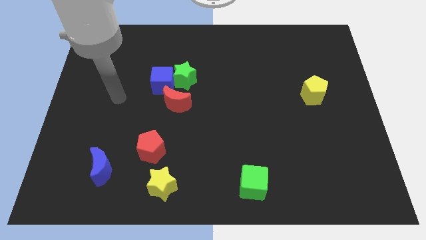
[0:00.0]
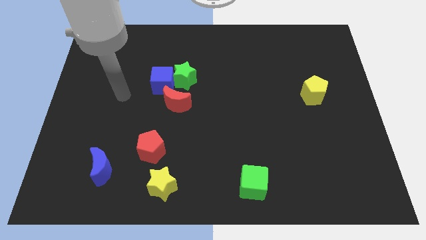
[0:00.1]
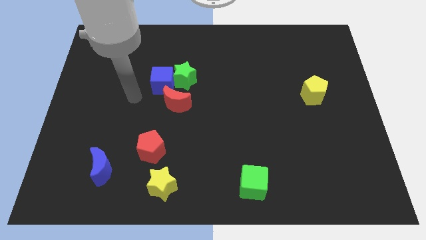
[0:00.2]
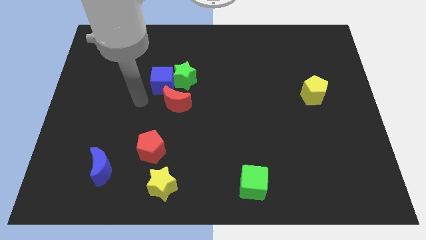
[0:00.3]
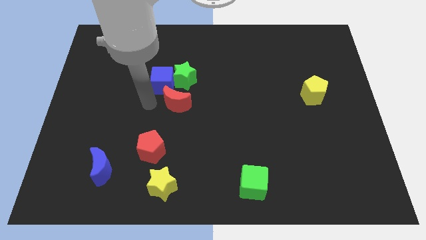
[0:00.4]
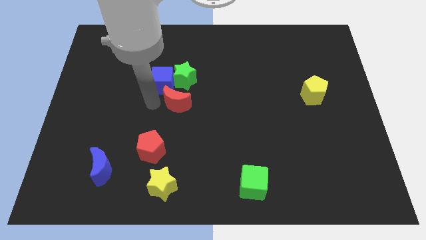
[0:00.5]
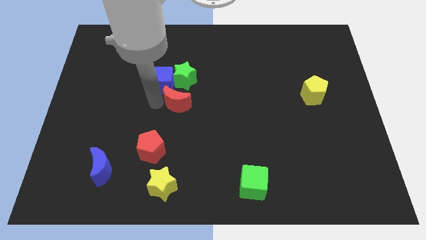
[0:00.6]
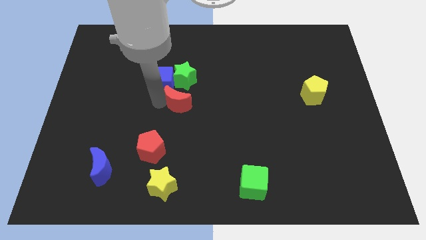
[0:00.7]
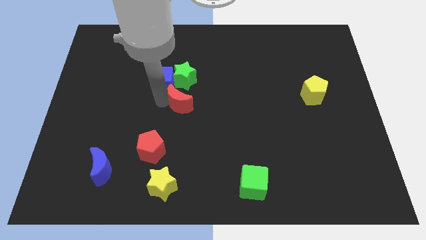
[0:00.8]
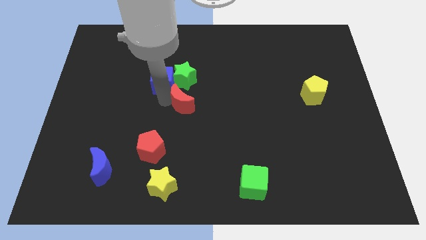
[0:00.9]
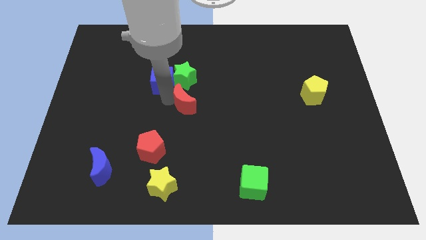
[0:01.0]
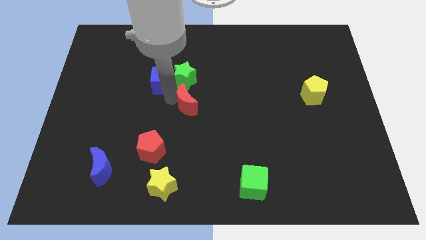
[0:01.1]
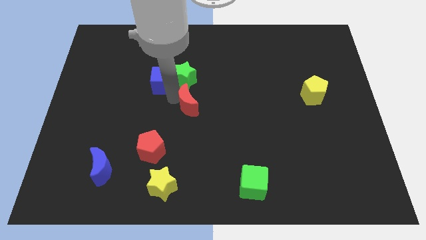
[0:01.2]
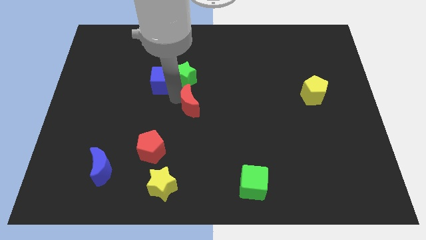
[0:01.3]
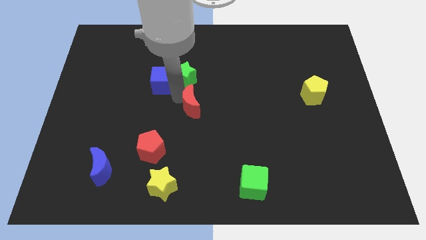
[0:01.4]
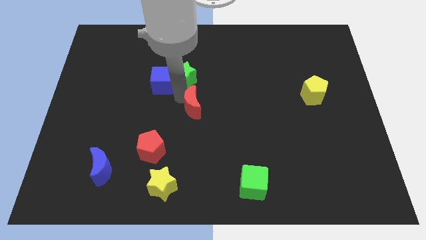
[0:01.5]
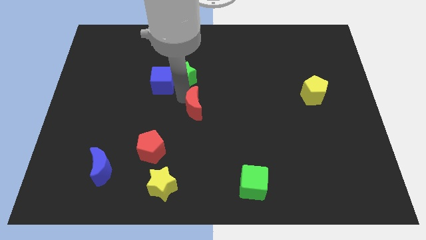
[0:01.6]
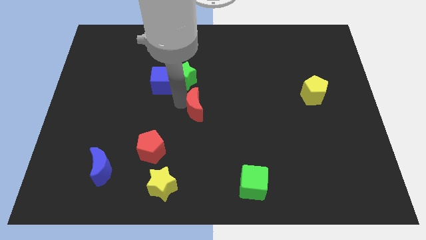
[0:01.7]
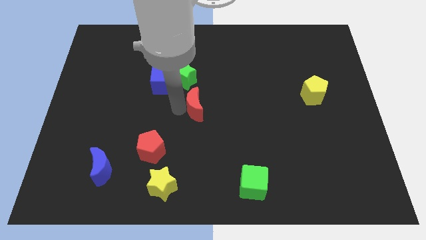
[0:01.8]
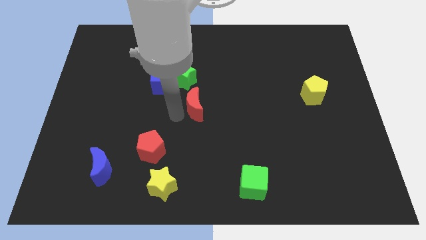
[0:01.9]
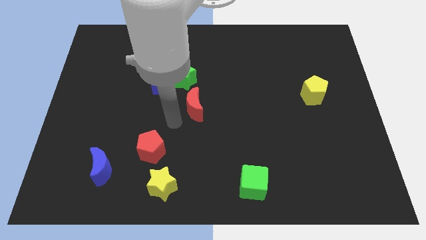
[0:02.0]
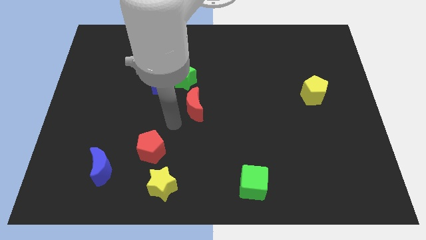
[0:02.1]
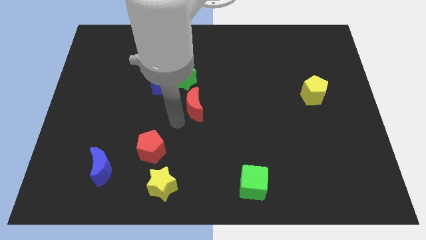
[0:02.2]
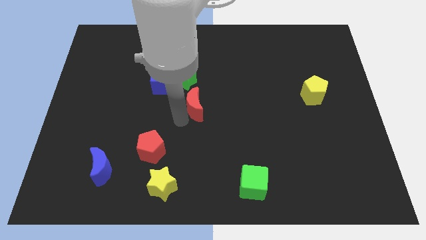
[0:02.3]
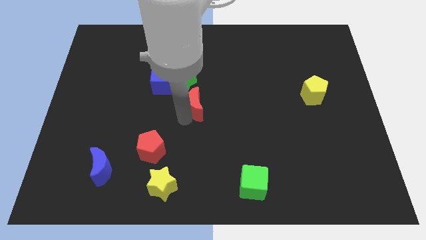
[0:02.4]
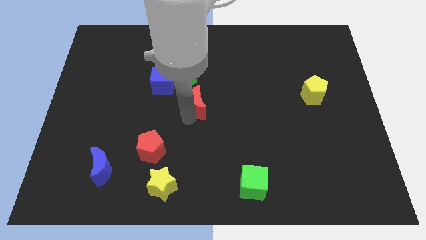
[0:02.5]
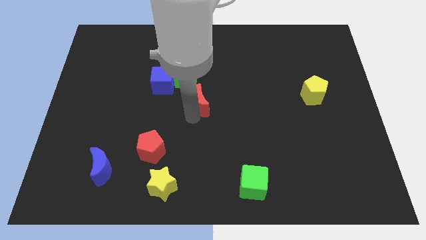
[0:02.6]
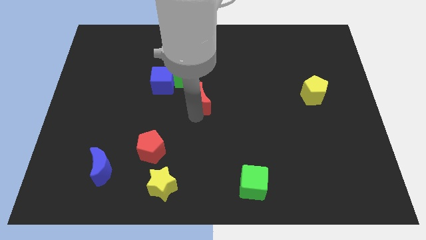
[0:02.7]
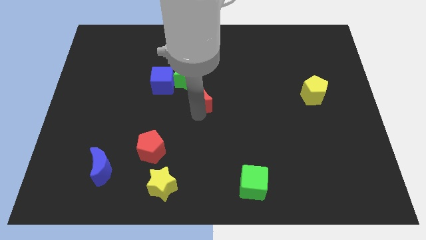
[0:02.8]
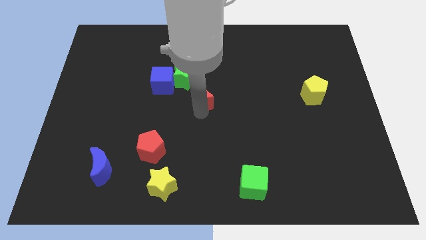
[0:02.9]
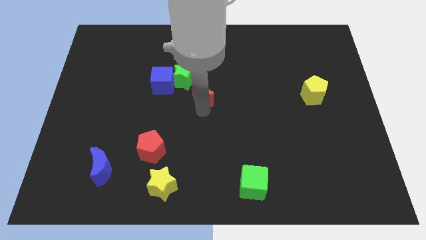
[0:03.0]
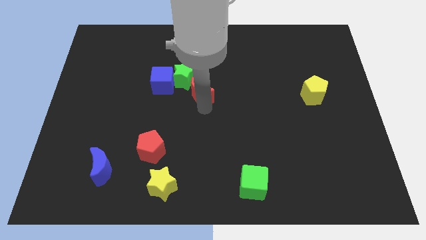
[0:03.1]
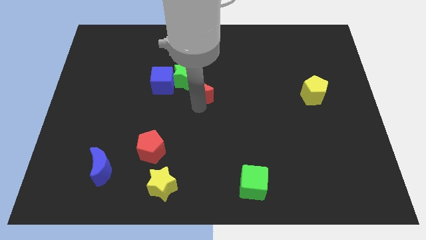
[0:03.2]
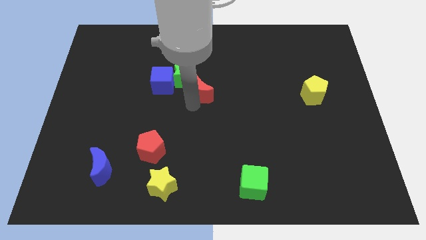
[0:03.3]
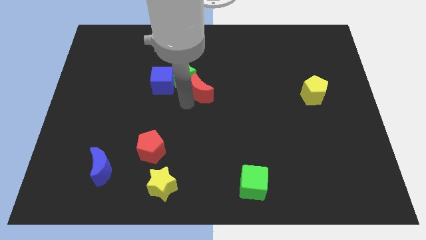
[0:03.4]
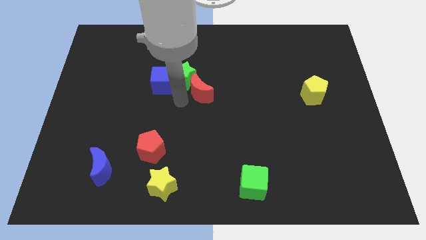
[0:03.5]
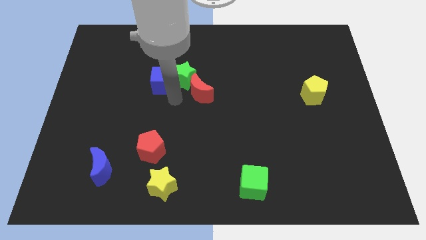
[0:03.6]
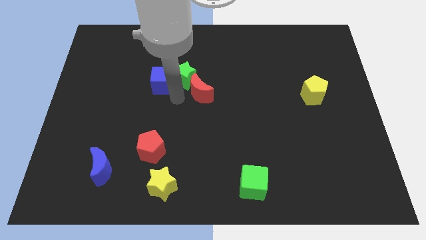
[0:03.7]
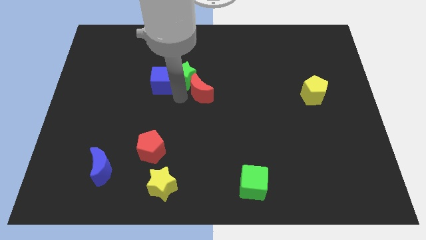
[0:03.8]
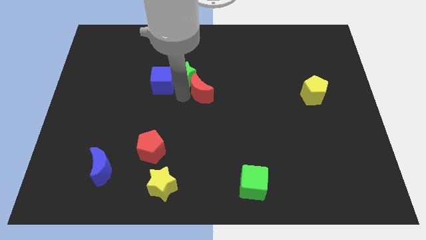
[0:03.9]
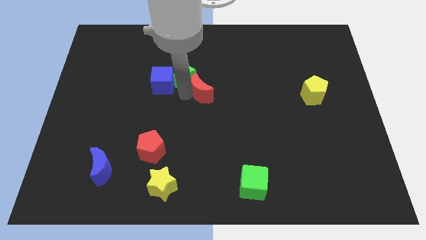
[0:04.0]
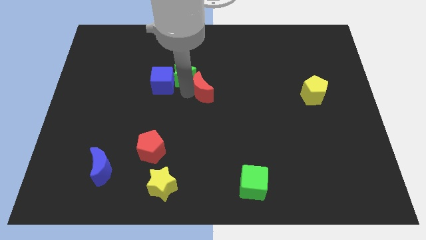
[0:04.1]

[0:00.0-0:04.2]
move the red moon up and right somewhat

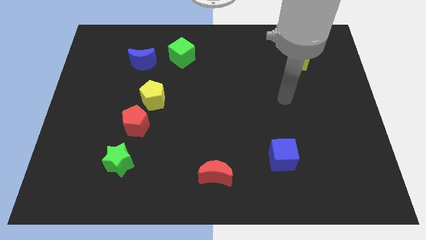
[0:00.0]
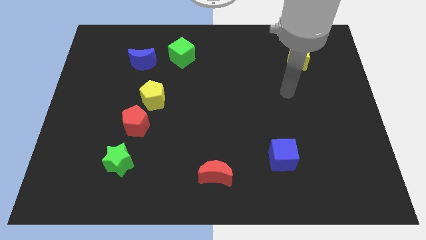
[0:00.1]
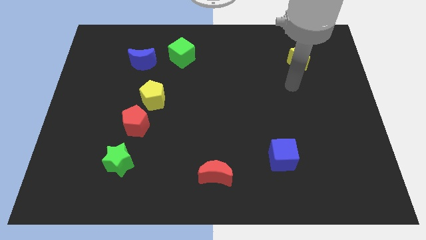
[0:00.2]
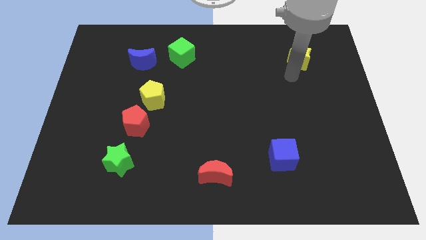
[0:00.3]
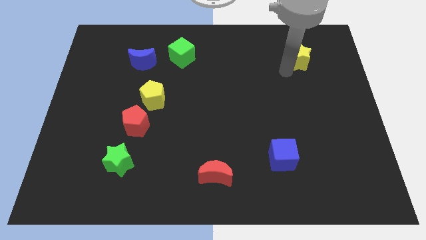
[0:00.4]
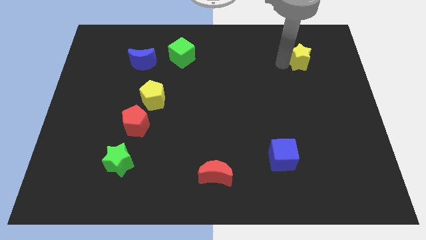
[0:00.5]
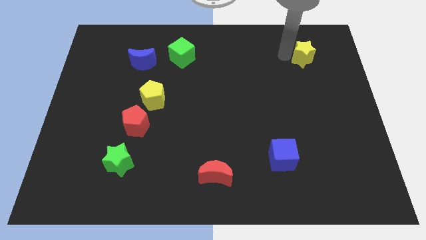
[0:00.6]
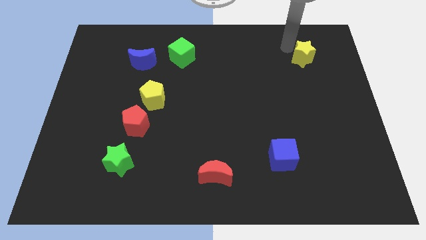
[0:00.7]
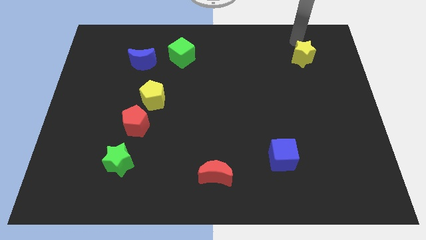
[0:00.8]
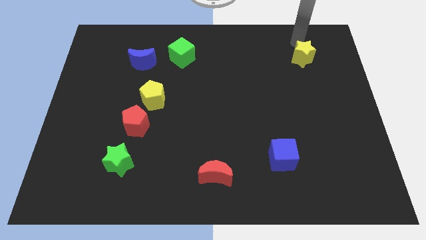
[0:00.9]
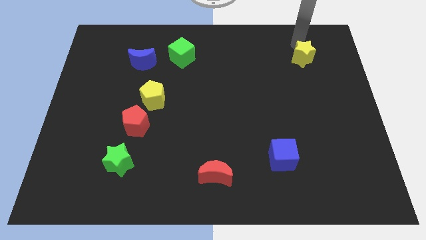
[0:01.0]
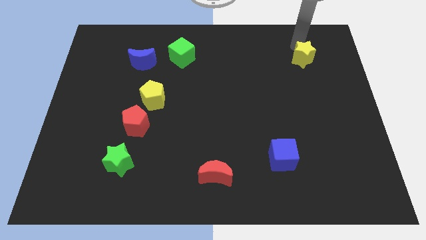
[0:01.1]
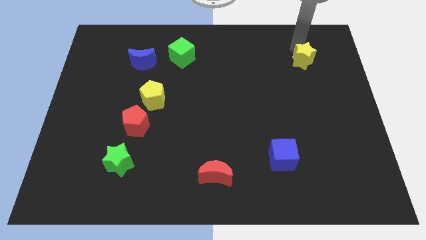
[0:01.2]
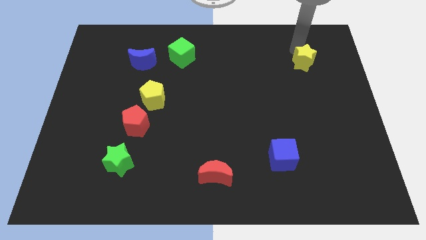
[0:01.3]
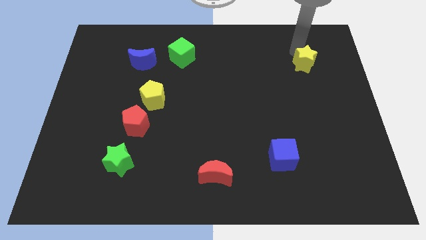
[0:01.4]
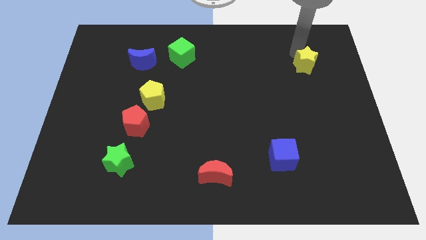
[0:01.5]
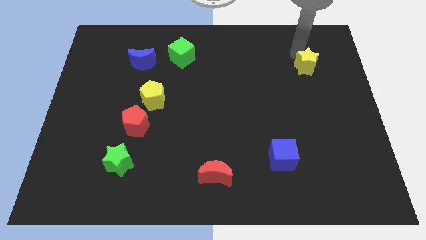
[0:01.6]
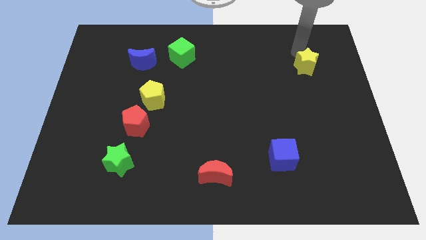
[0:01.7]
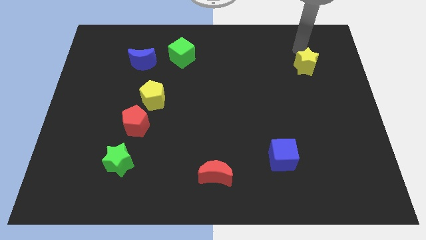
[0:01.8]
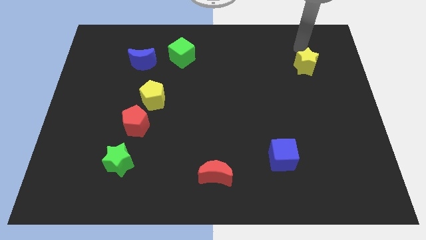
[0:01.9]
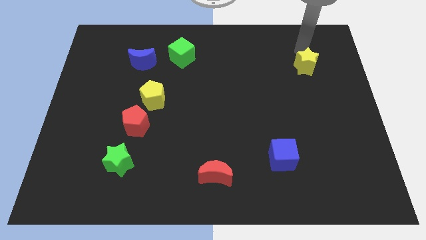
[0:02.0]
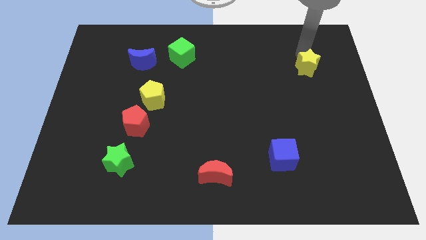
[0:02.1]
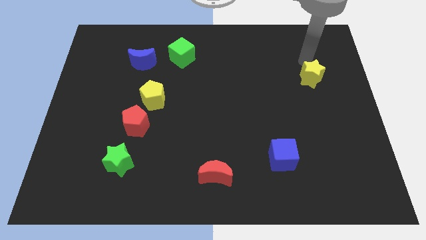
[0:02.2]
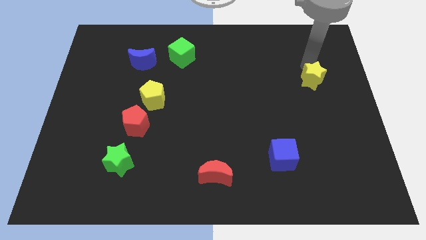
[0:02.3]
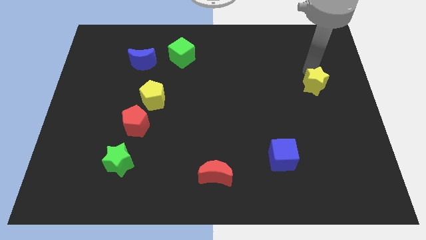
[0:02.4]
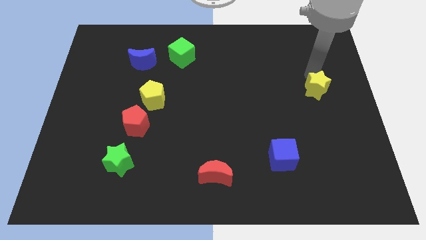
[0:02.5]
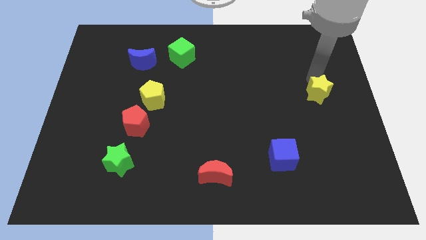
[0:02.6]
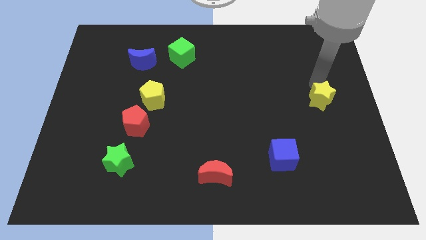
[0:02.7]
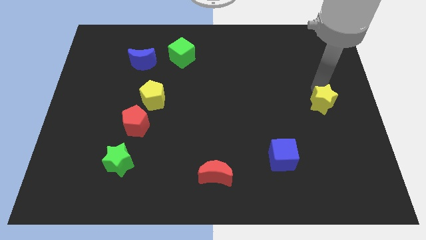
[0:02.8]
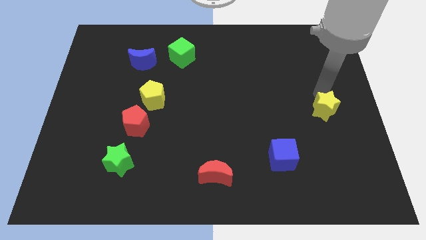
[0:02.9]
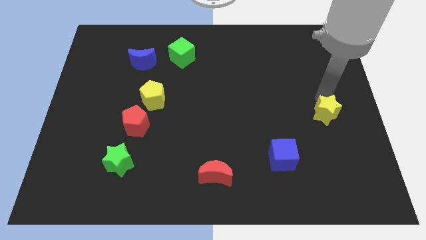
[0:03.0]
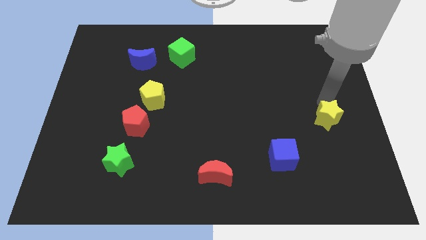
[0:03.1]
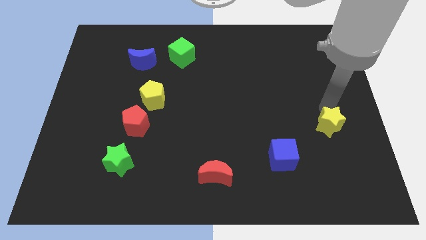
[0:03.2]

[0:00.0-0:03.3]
move the yellow star down

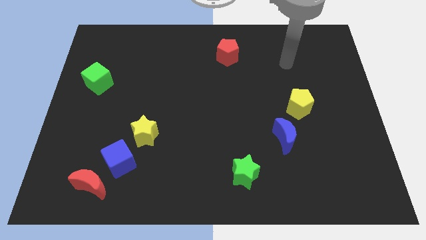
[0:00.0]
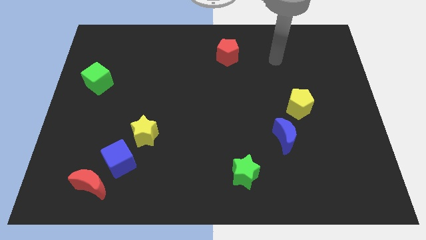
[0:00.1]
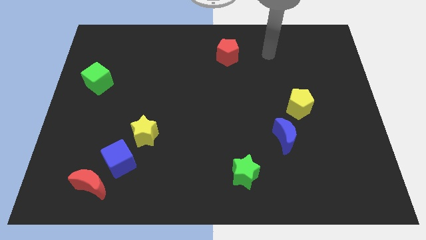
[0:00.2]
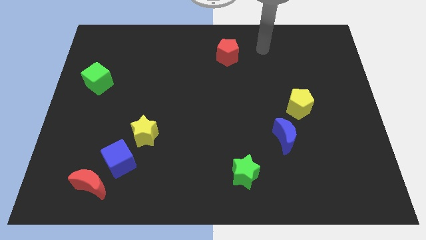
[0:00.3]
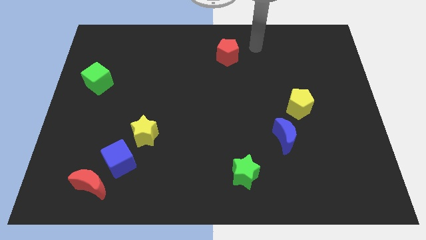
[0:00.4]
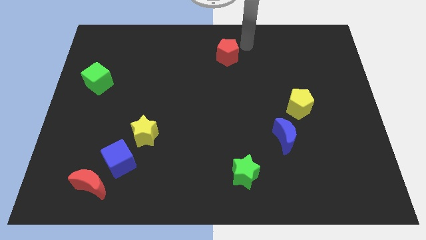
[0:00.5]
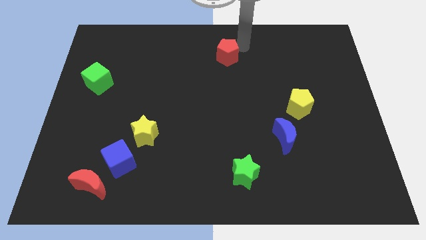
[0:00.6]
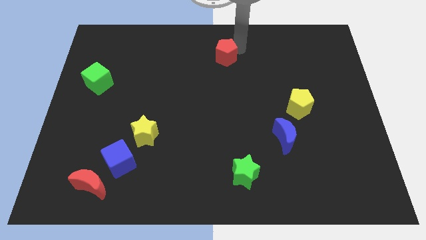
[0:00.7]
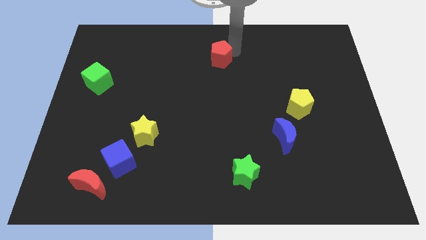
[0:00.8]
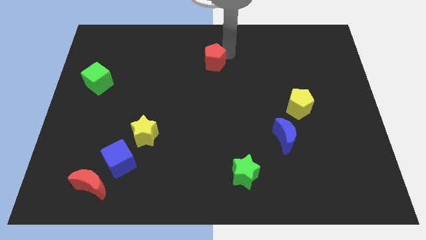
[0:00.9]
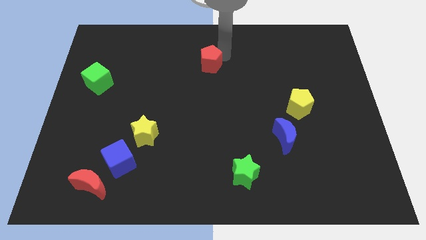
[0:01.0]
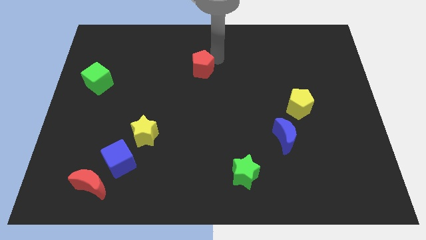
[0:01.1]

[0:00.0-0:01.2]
slightly slide the red pentagon diagonally downwards and to the left
